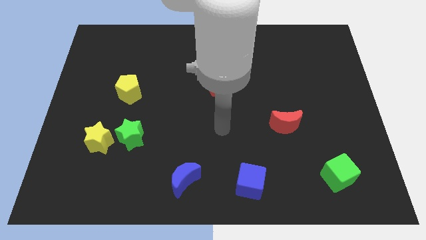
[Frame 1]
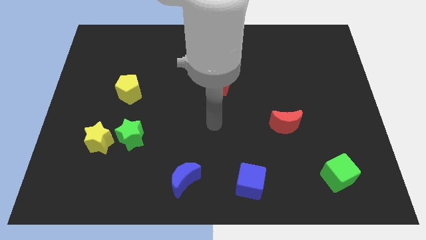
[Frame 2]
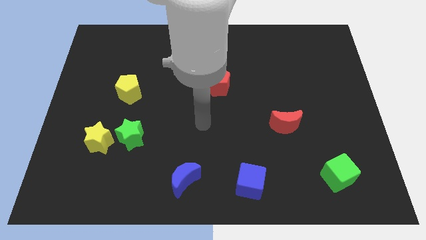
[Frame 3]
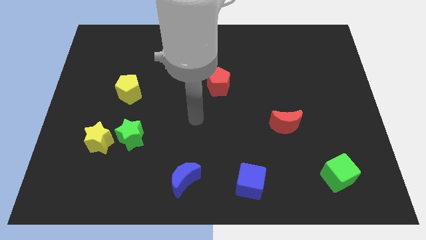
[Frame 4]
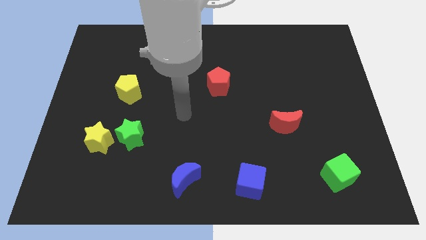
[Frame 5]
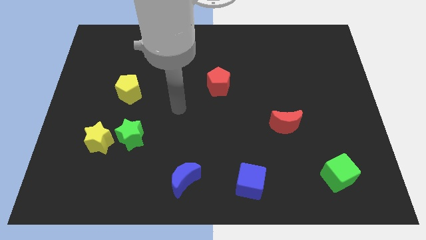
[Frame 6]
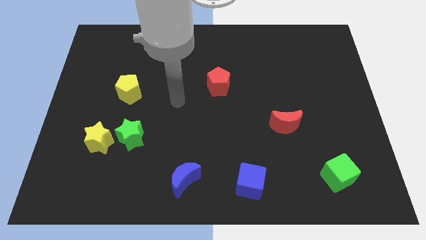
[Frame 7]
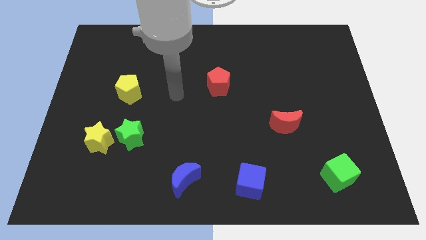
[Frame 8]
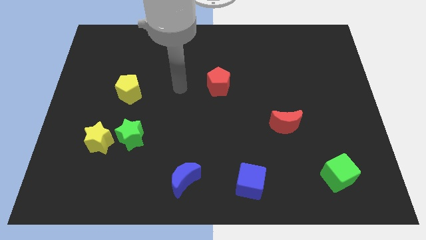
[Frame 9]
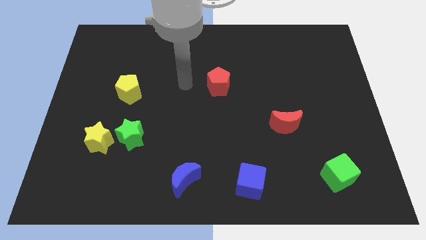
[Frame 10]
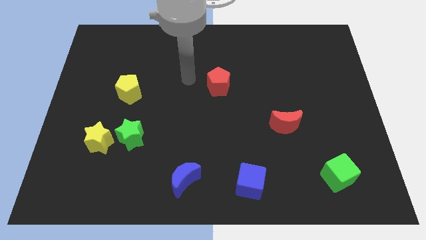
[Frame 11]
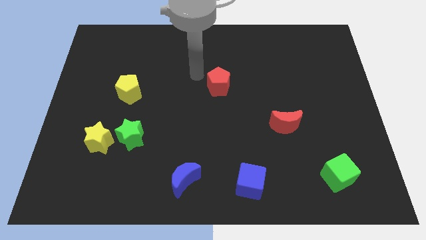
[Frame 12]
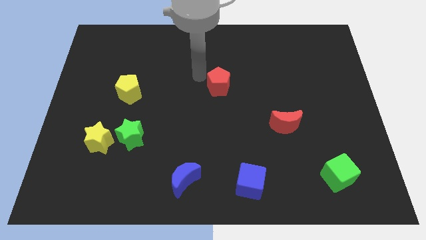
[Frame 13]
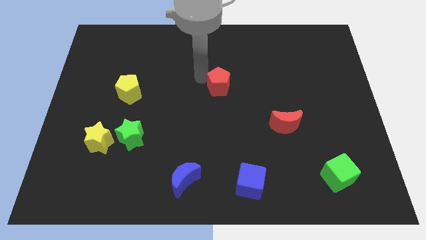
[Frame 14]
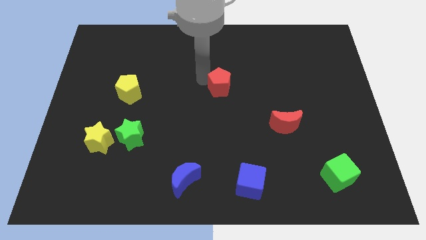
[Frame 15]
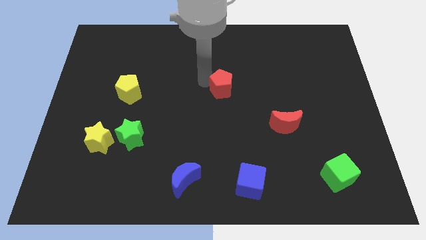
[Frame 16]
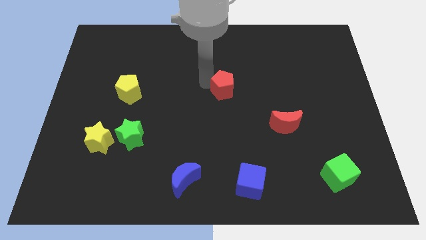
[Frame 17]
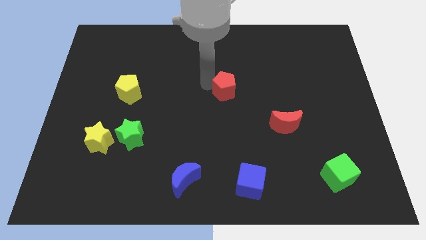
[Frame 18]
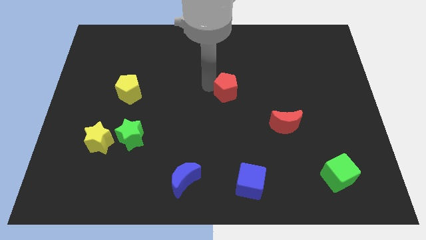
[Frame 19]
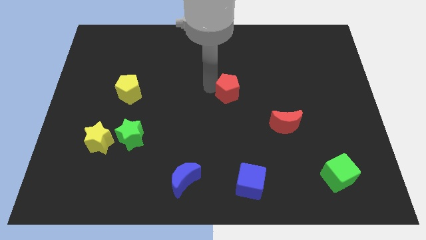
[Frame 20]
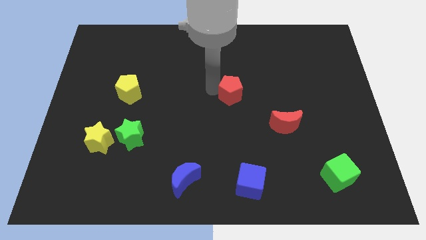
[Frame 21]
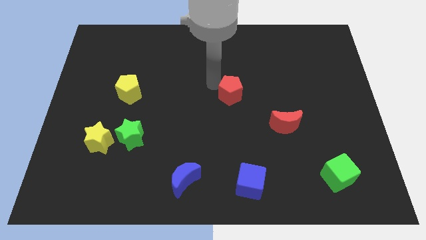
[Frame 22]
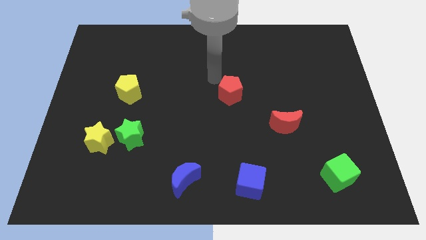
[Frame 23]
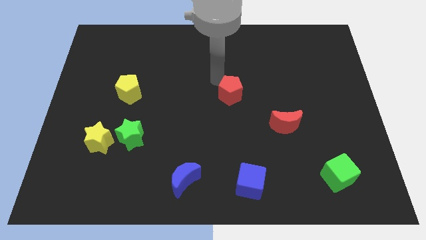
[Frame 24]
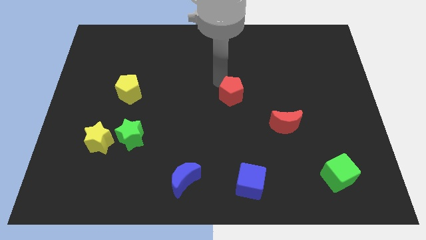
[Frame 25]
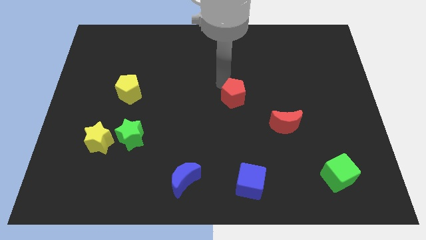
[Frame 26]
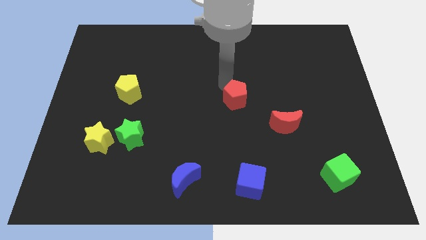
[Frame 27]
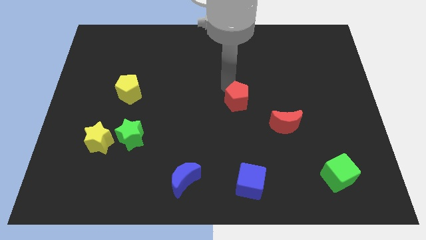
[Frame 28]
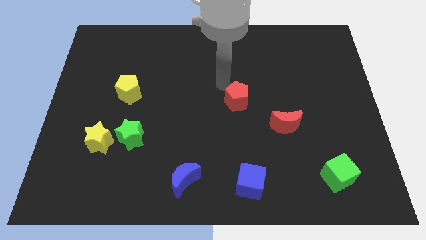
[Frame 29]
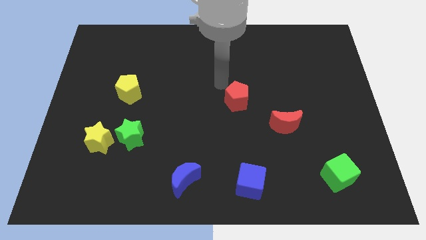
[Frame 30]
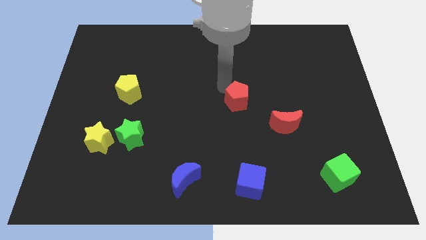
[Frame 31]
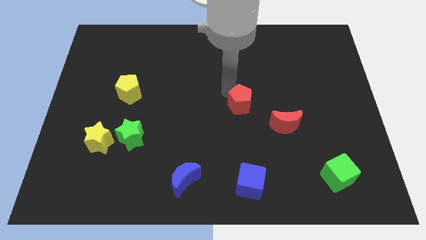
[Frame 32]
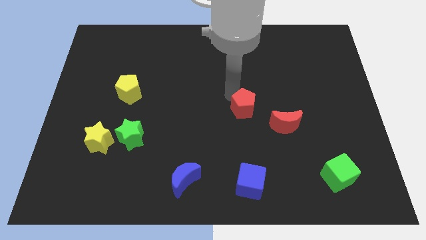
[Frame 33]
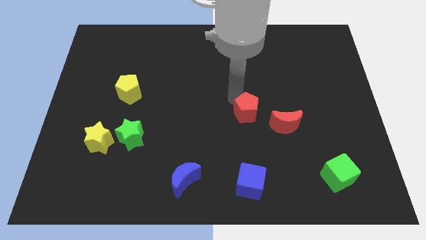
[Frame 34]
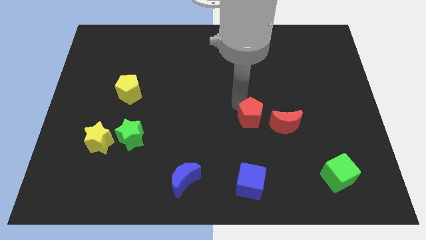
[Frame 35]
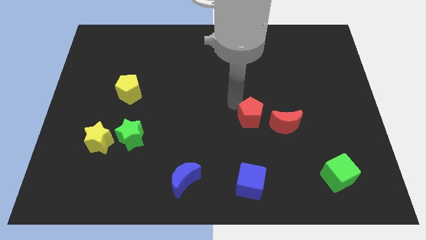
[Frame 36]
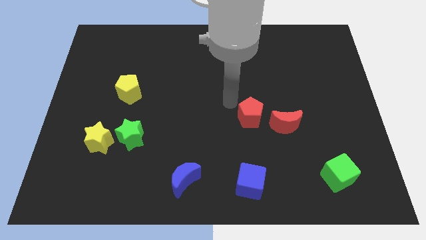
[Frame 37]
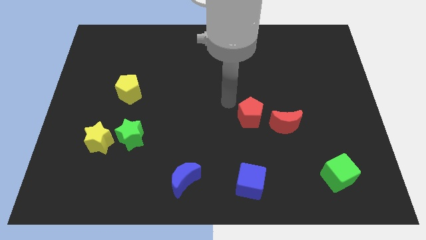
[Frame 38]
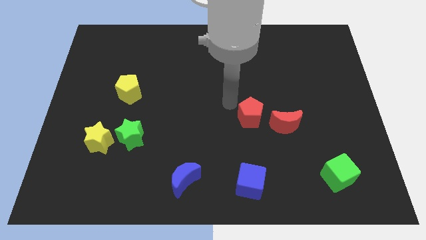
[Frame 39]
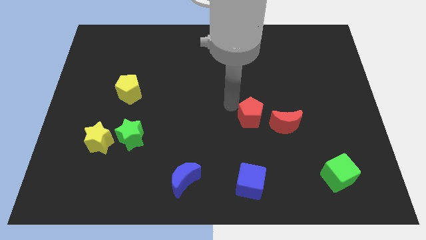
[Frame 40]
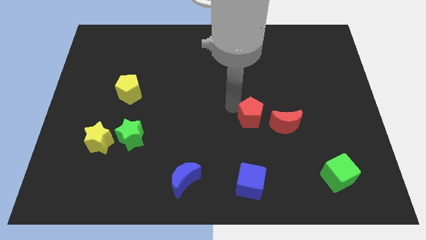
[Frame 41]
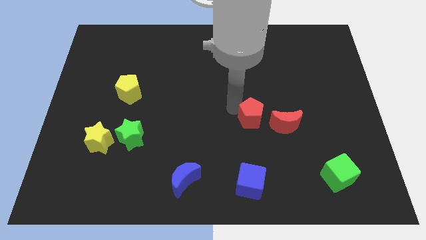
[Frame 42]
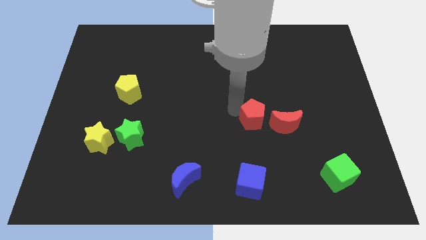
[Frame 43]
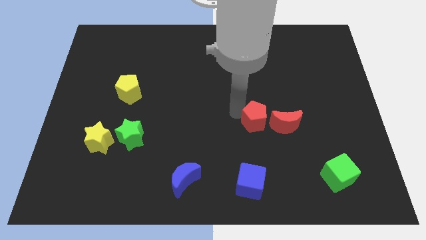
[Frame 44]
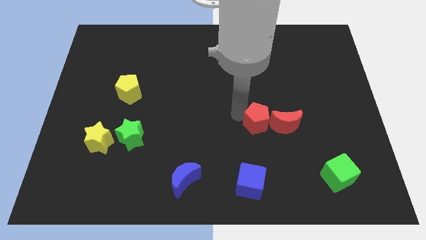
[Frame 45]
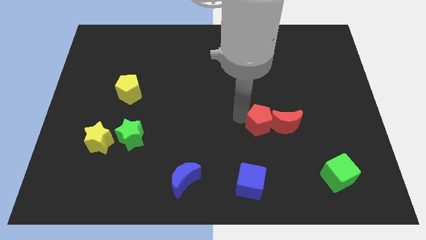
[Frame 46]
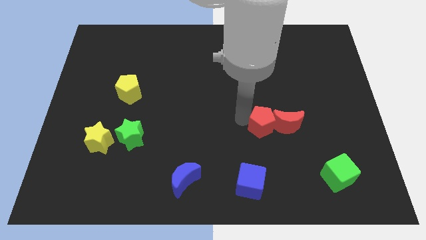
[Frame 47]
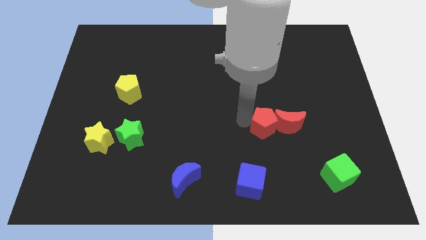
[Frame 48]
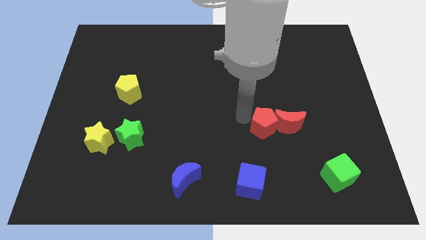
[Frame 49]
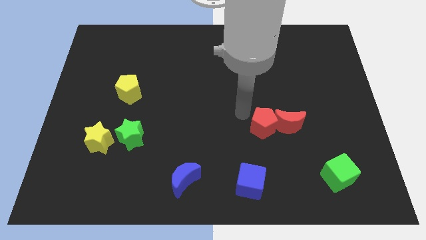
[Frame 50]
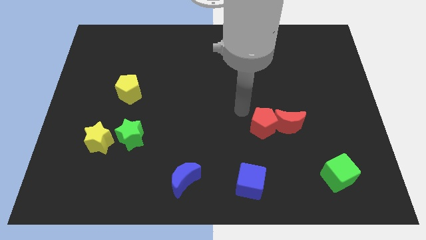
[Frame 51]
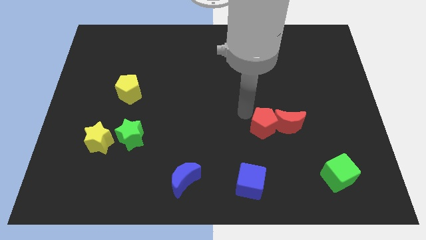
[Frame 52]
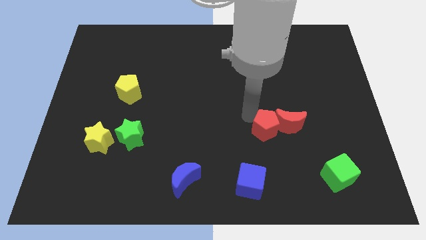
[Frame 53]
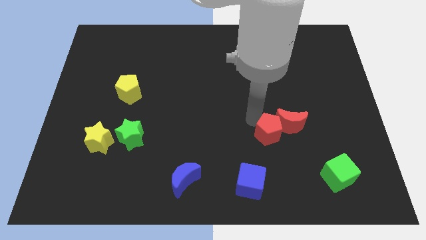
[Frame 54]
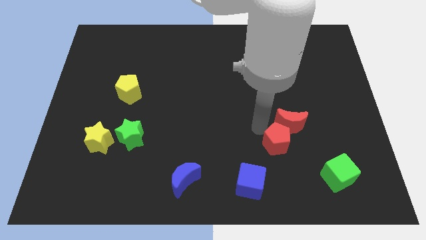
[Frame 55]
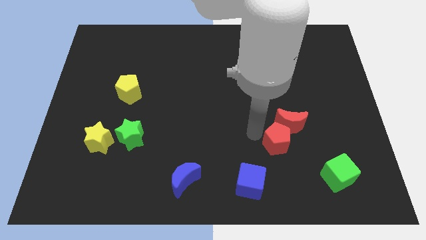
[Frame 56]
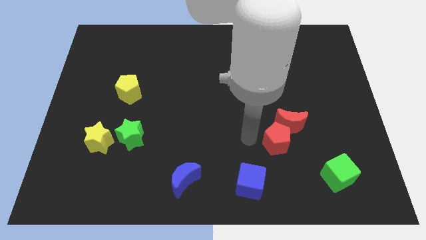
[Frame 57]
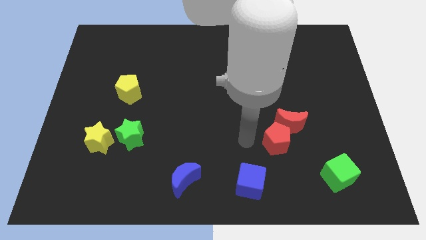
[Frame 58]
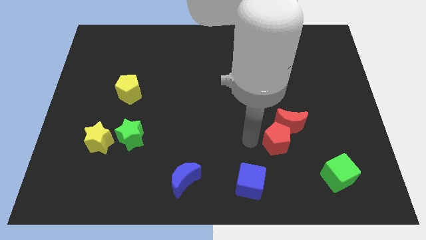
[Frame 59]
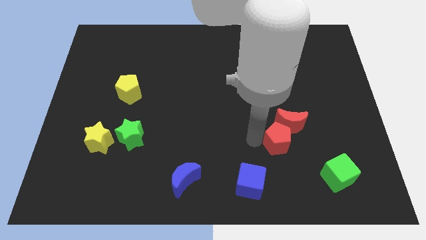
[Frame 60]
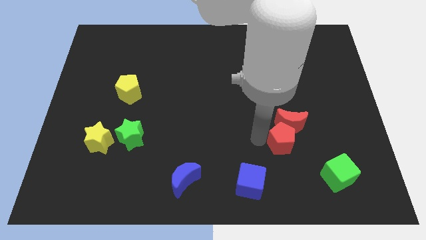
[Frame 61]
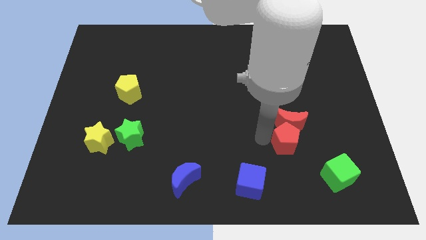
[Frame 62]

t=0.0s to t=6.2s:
push the red pentagon diagonally down and to the right of the red moon

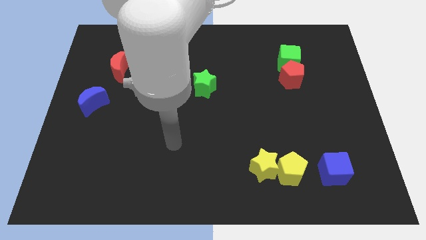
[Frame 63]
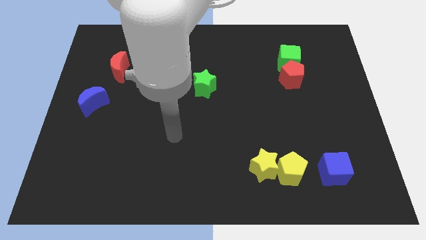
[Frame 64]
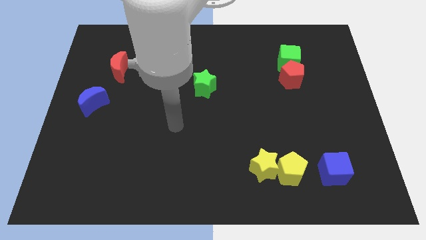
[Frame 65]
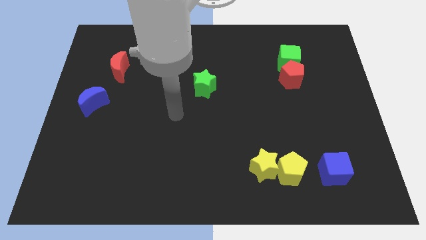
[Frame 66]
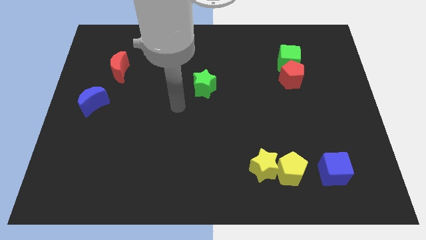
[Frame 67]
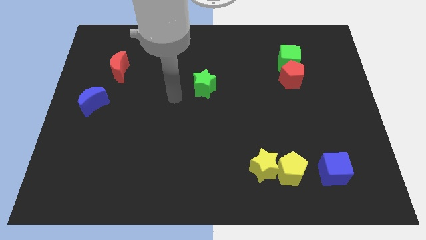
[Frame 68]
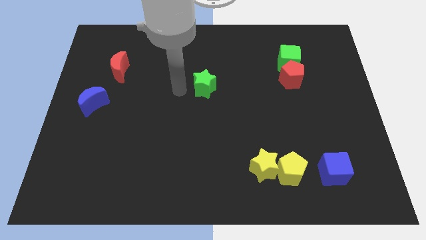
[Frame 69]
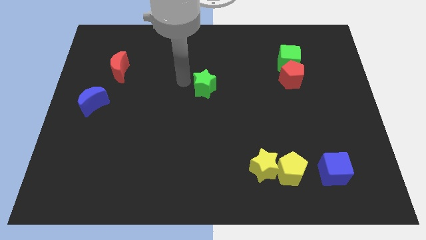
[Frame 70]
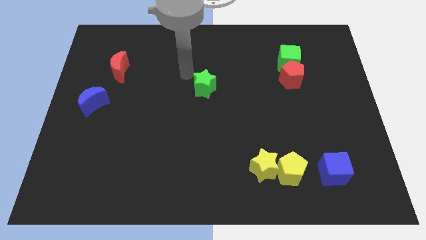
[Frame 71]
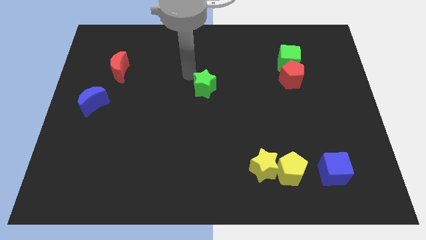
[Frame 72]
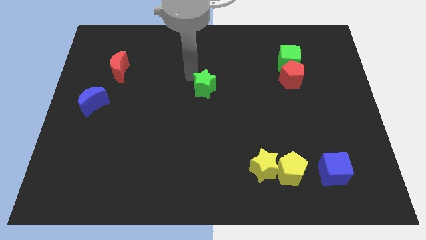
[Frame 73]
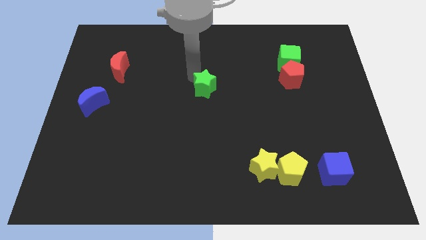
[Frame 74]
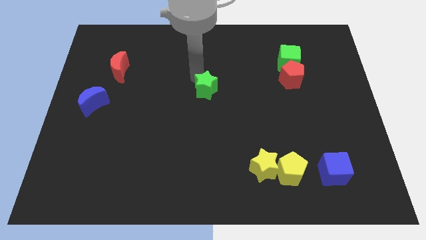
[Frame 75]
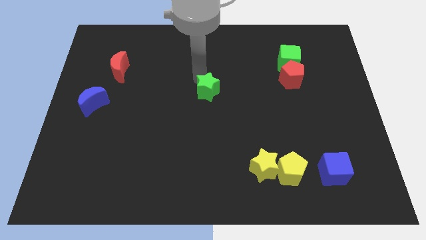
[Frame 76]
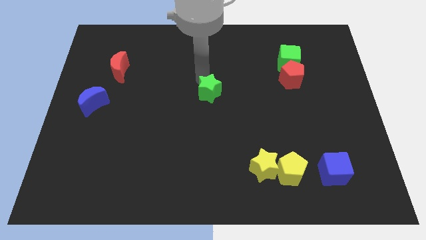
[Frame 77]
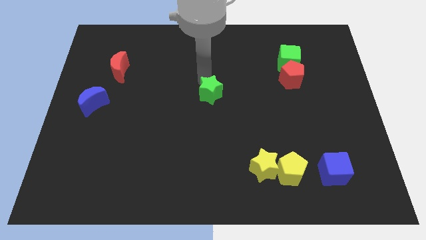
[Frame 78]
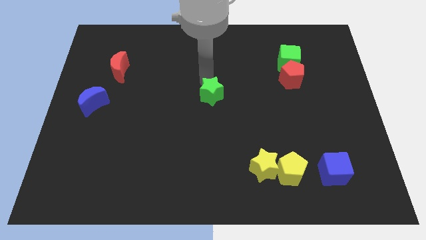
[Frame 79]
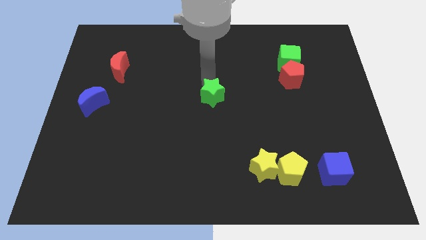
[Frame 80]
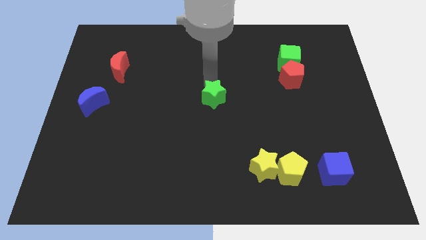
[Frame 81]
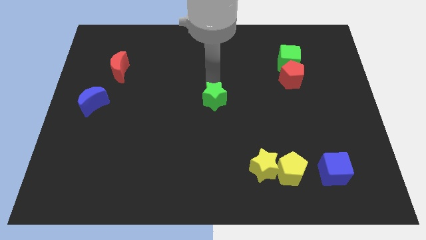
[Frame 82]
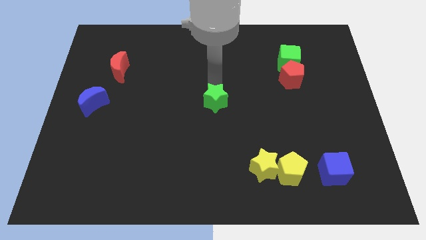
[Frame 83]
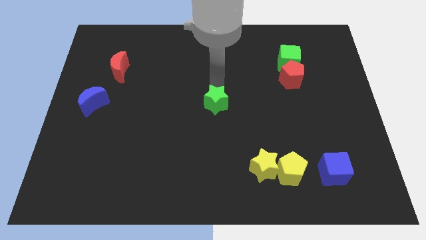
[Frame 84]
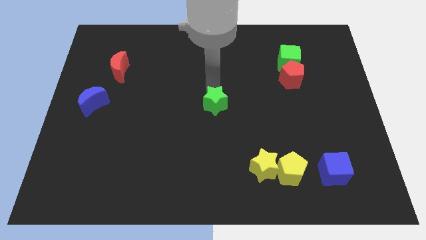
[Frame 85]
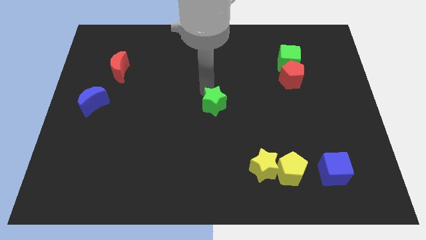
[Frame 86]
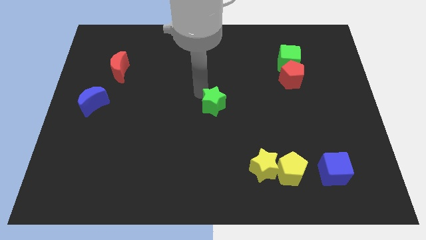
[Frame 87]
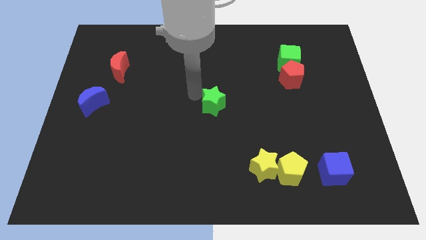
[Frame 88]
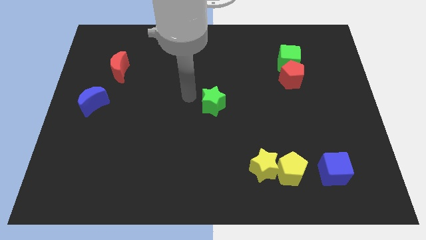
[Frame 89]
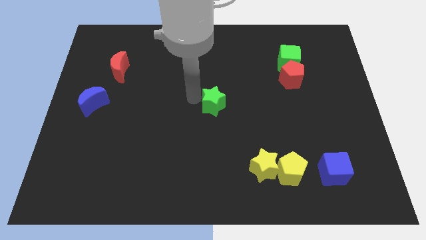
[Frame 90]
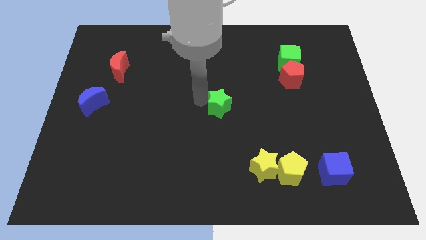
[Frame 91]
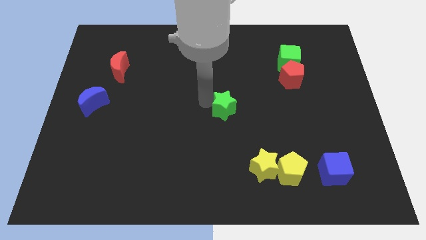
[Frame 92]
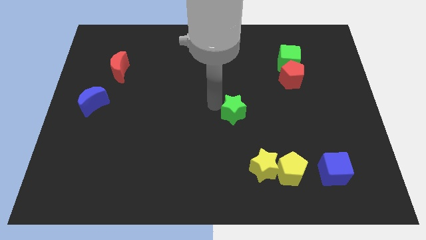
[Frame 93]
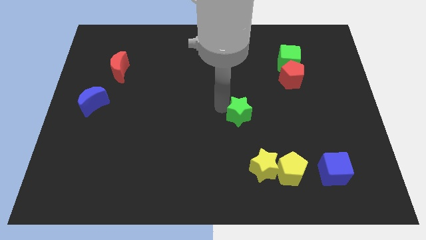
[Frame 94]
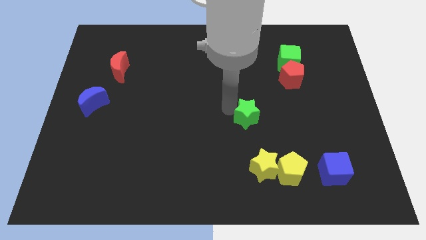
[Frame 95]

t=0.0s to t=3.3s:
move the green star to the top side of the yellow star
